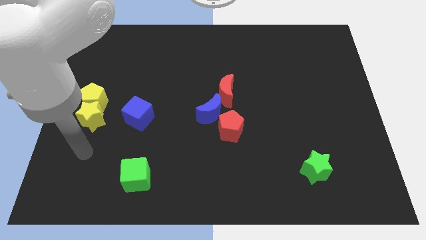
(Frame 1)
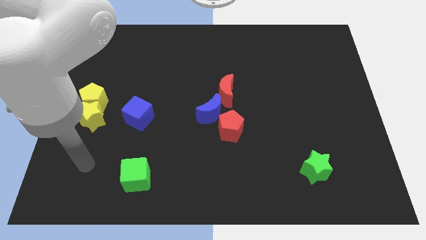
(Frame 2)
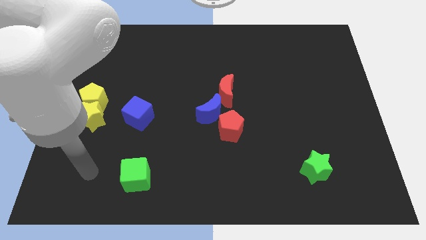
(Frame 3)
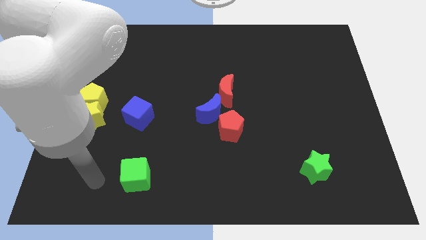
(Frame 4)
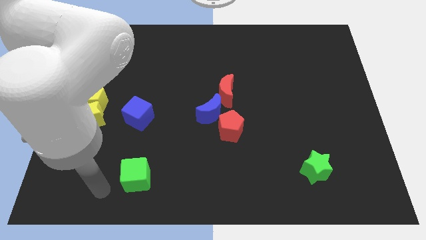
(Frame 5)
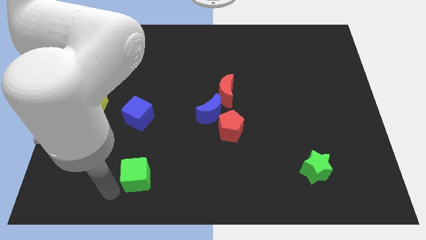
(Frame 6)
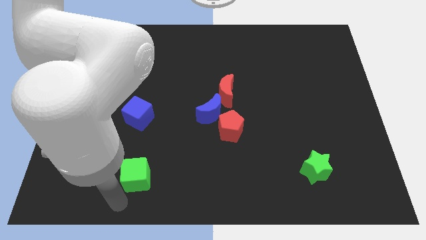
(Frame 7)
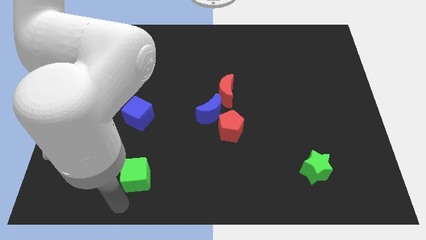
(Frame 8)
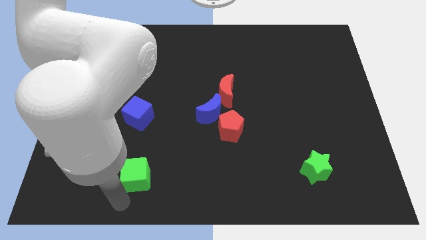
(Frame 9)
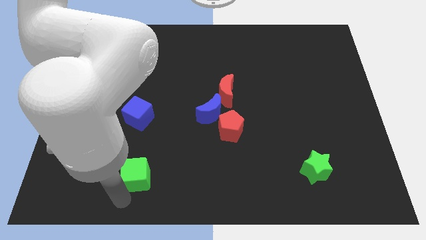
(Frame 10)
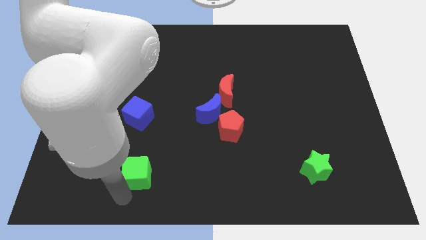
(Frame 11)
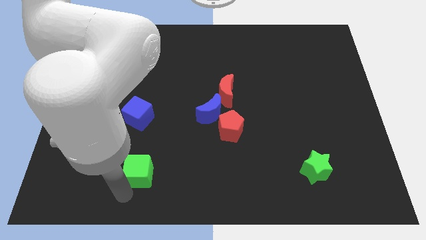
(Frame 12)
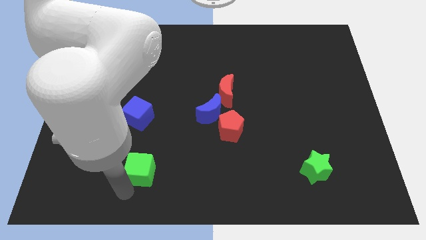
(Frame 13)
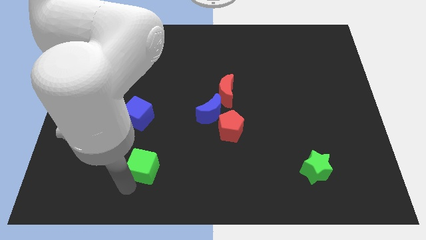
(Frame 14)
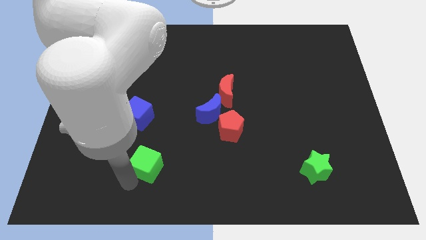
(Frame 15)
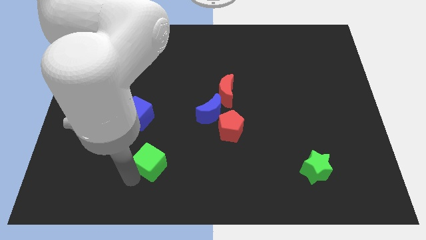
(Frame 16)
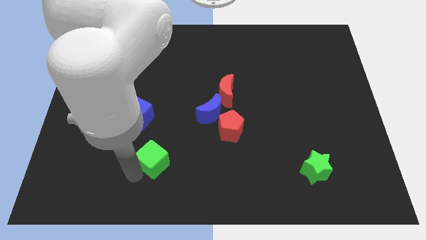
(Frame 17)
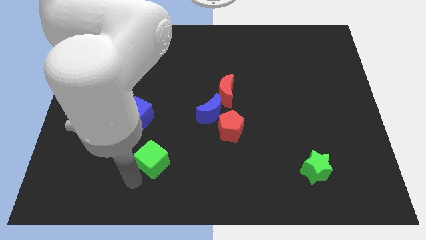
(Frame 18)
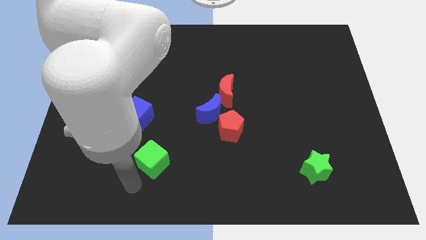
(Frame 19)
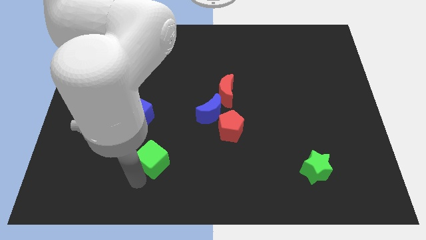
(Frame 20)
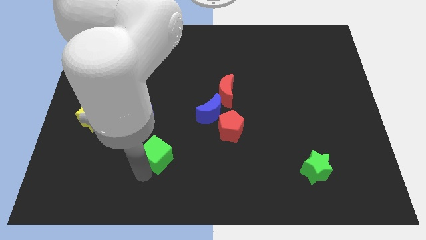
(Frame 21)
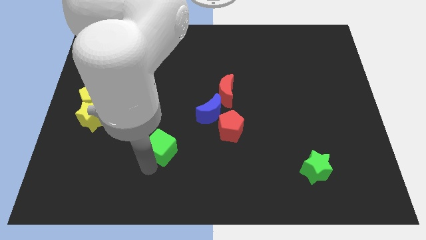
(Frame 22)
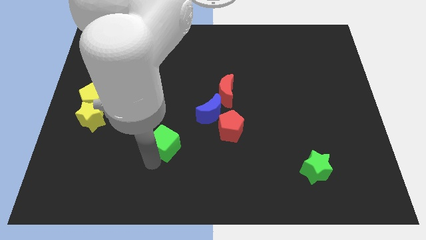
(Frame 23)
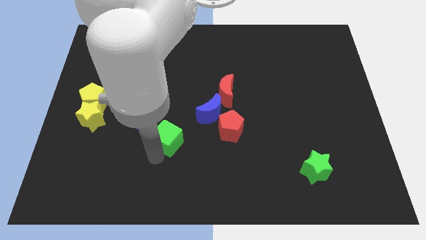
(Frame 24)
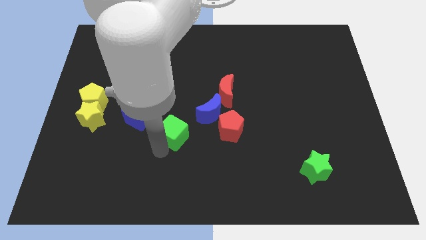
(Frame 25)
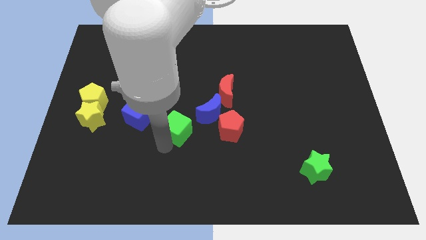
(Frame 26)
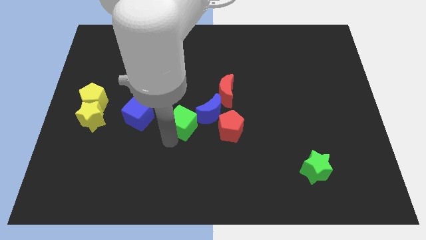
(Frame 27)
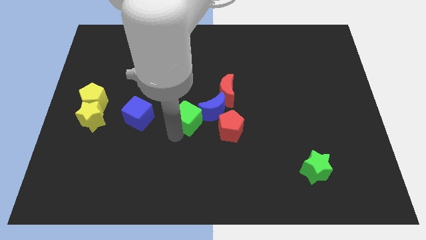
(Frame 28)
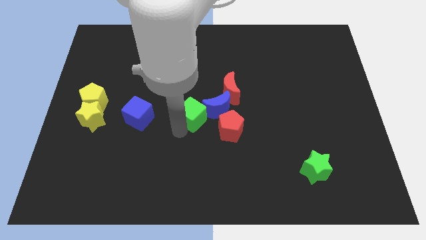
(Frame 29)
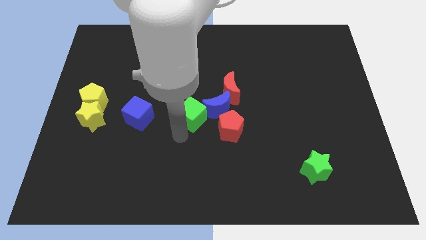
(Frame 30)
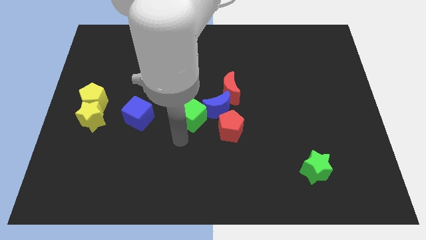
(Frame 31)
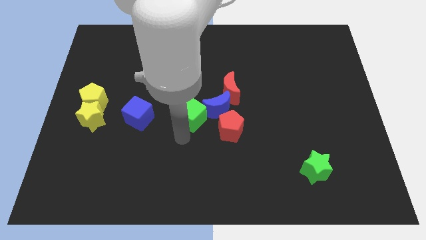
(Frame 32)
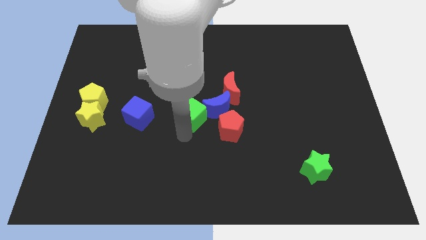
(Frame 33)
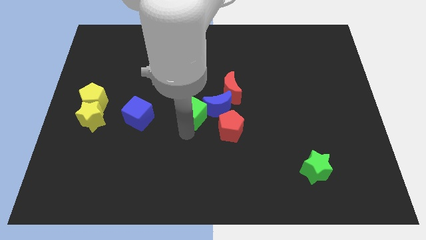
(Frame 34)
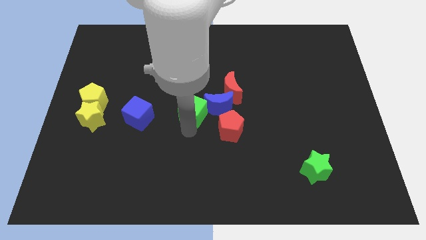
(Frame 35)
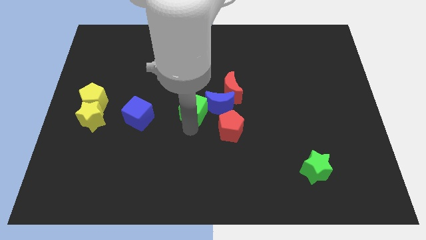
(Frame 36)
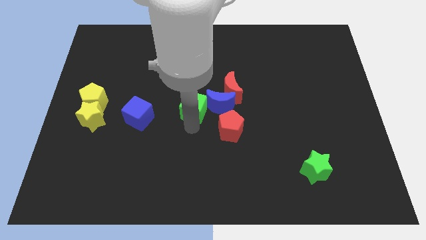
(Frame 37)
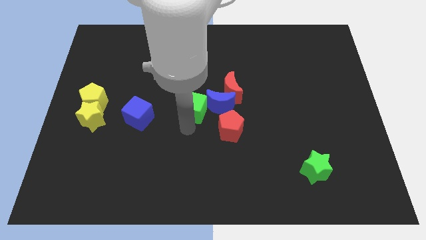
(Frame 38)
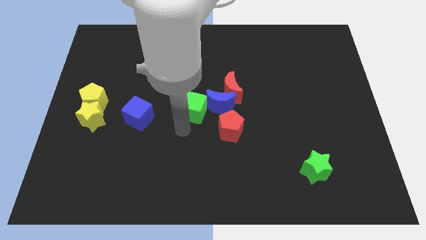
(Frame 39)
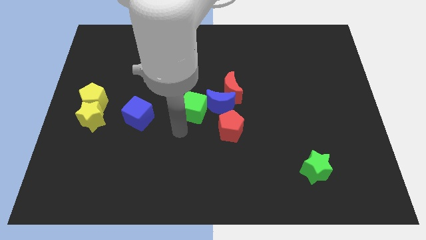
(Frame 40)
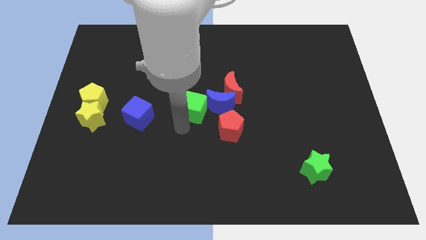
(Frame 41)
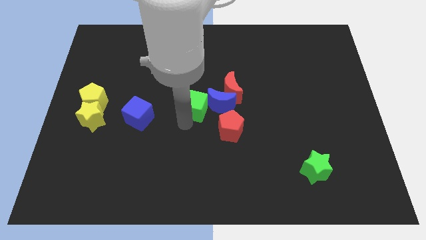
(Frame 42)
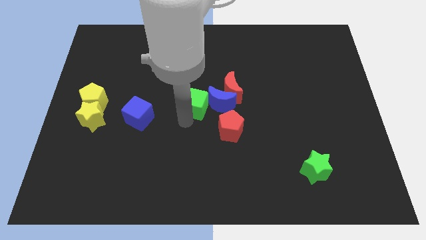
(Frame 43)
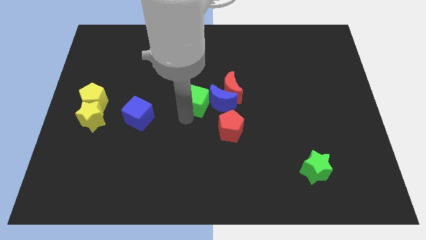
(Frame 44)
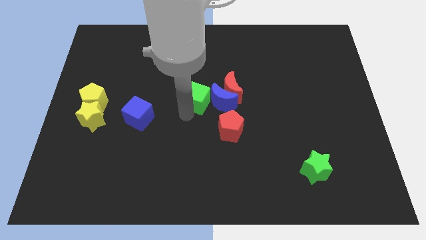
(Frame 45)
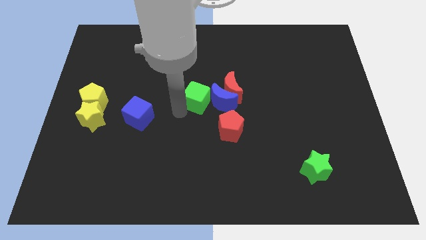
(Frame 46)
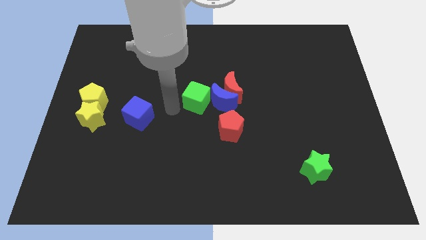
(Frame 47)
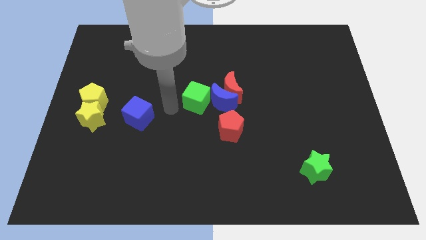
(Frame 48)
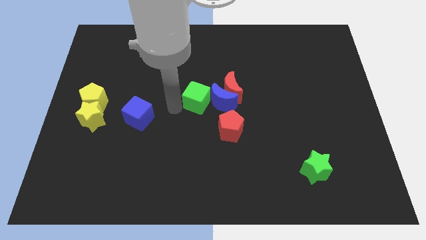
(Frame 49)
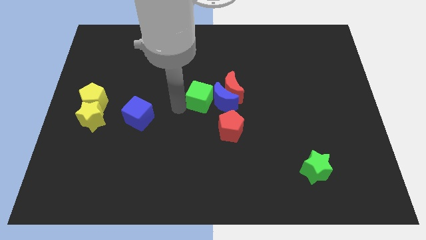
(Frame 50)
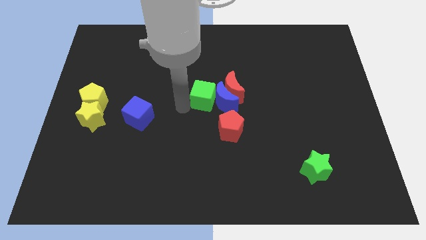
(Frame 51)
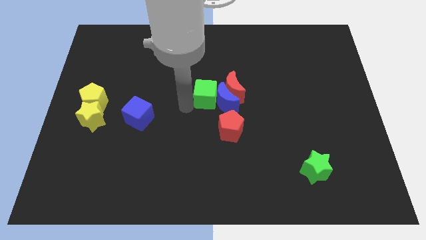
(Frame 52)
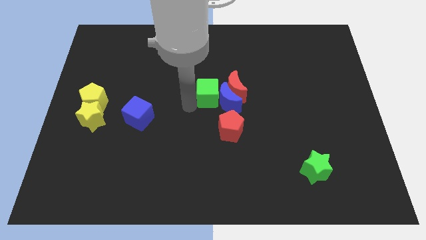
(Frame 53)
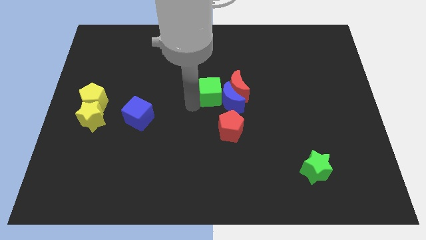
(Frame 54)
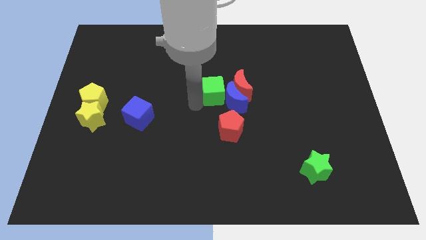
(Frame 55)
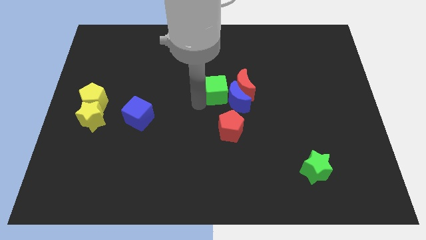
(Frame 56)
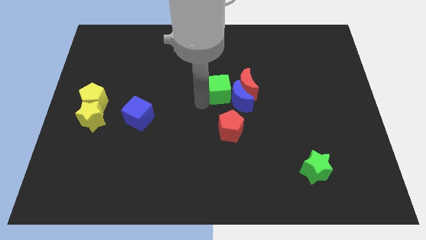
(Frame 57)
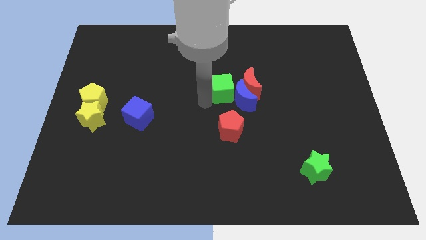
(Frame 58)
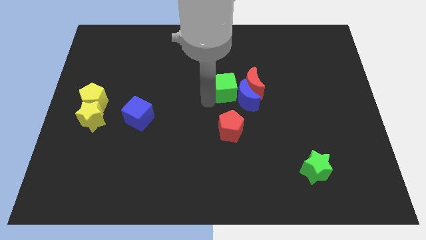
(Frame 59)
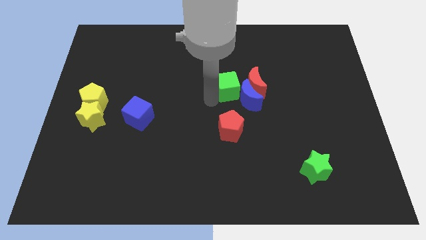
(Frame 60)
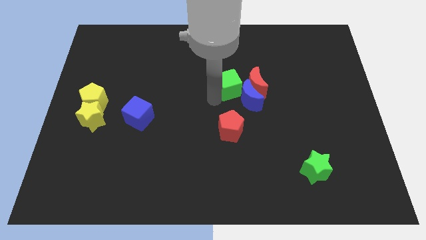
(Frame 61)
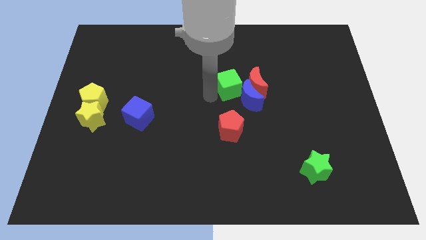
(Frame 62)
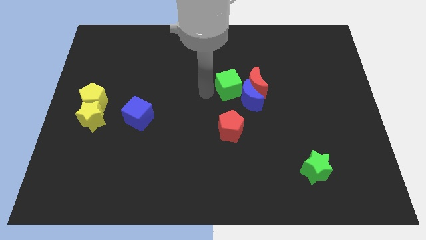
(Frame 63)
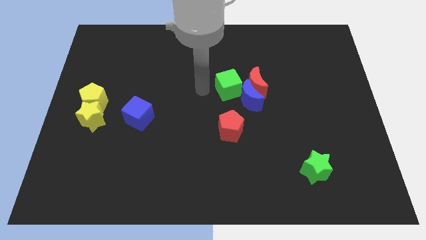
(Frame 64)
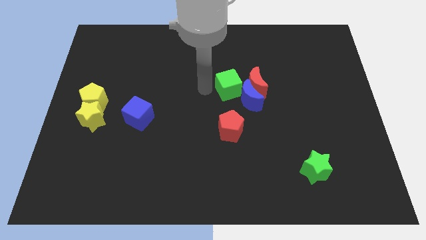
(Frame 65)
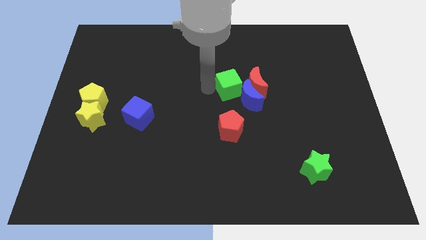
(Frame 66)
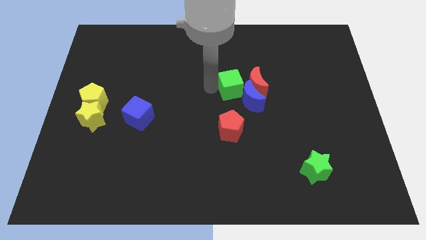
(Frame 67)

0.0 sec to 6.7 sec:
push the green cube towards the red moon

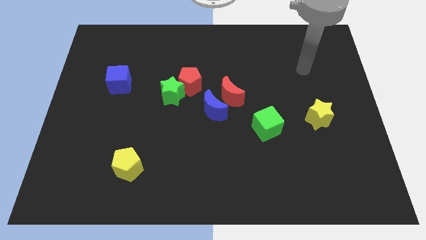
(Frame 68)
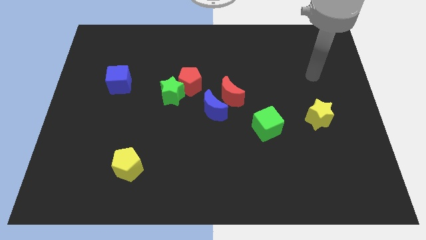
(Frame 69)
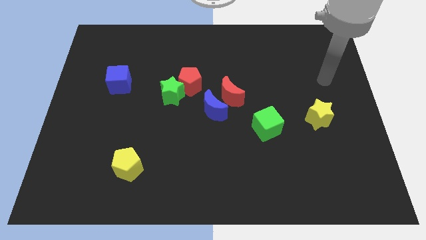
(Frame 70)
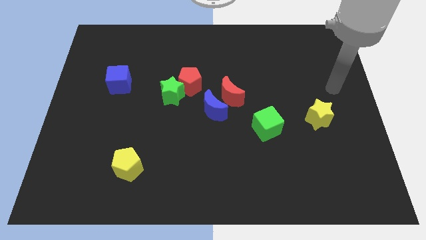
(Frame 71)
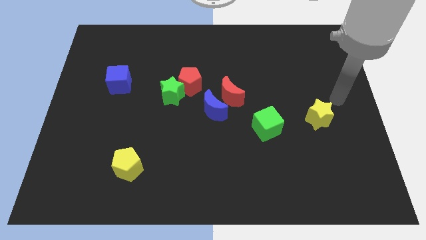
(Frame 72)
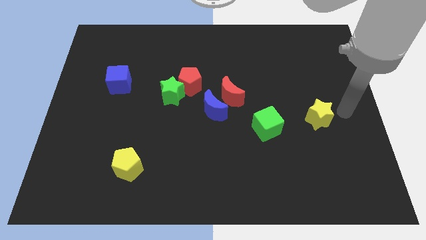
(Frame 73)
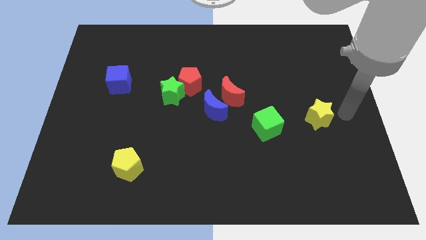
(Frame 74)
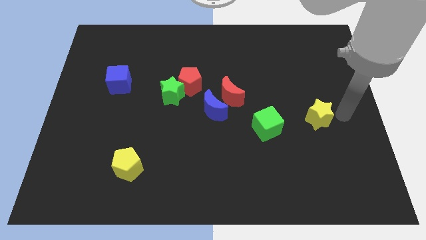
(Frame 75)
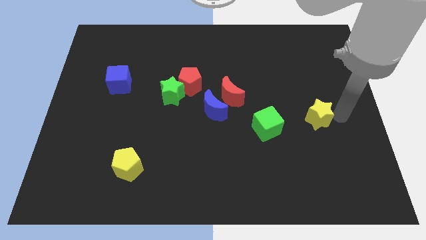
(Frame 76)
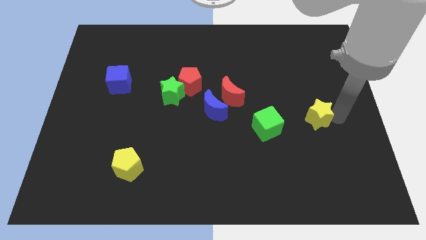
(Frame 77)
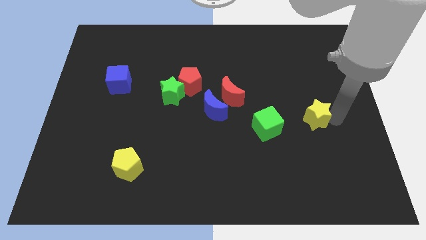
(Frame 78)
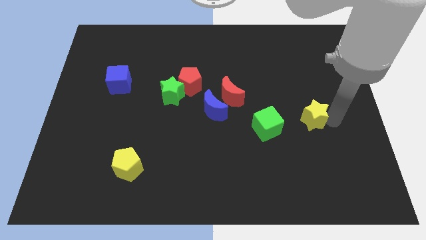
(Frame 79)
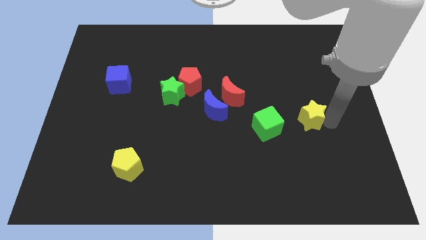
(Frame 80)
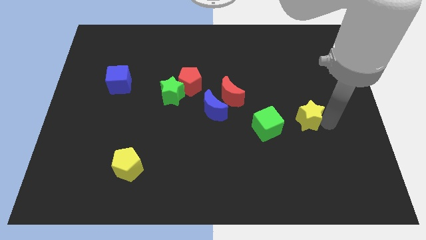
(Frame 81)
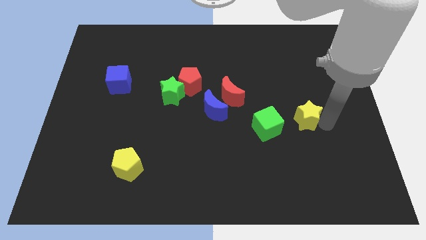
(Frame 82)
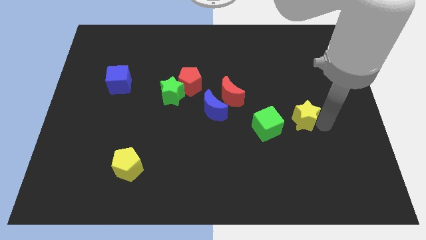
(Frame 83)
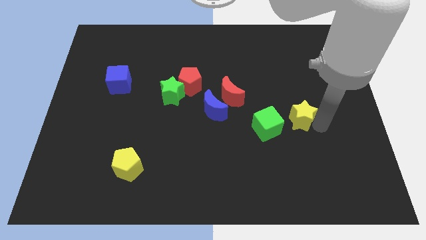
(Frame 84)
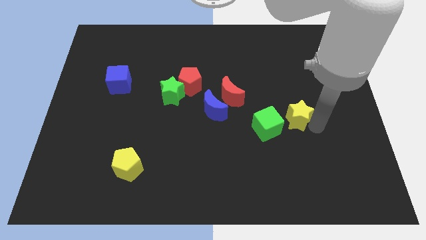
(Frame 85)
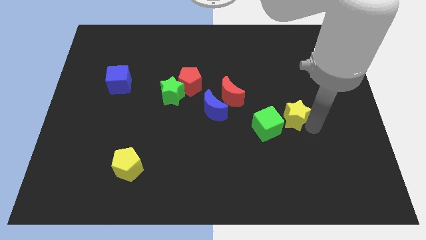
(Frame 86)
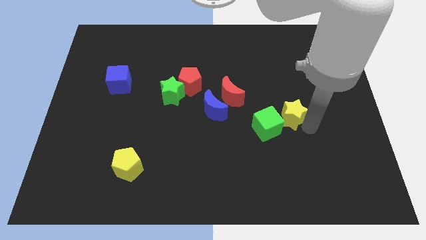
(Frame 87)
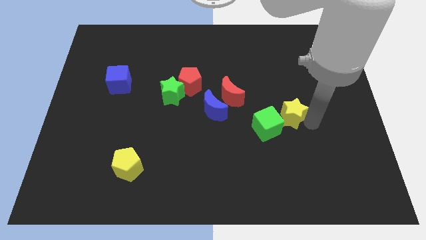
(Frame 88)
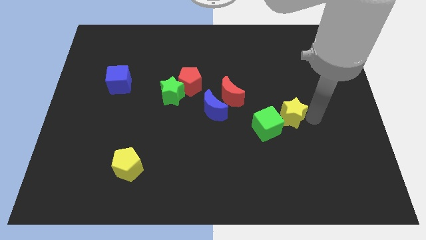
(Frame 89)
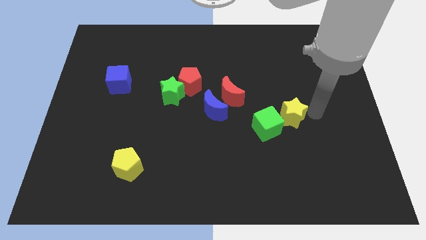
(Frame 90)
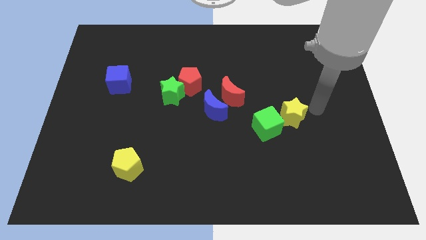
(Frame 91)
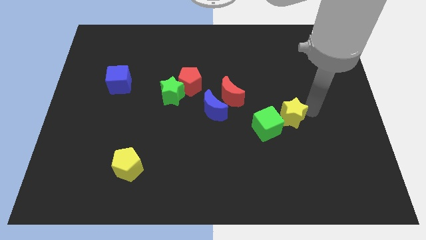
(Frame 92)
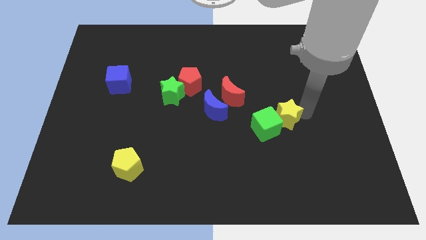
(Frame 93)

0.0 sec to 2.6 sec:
move the yellow star close to the green cube
